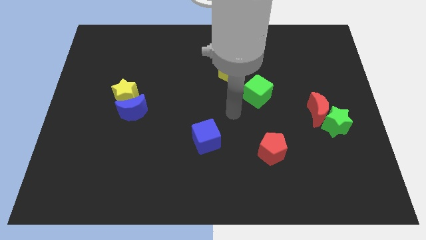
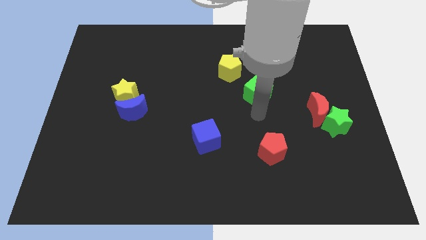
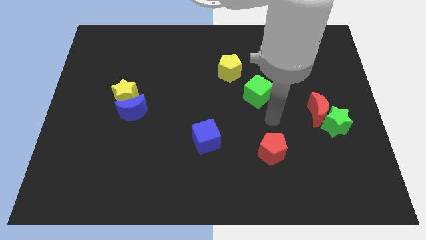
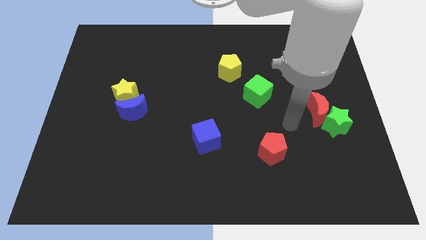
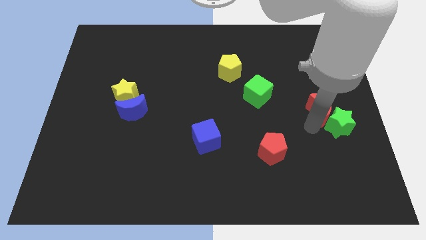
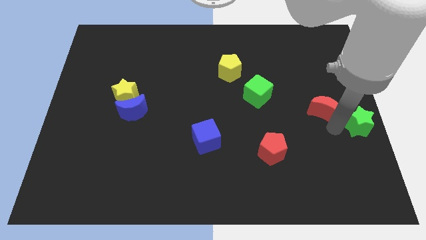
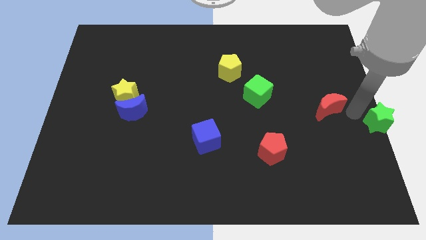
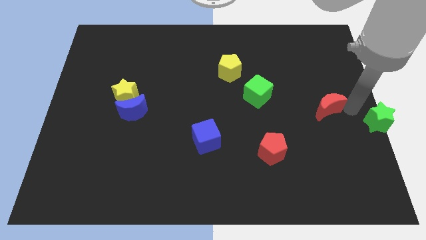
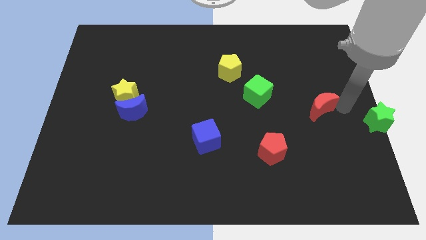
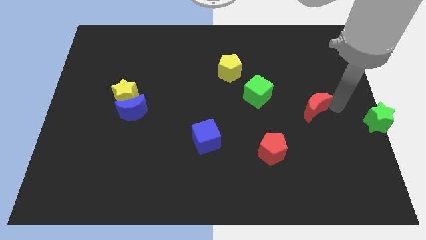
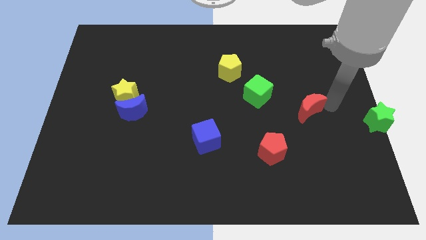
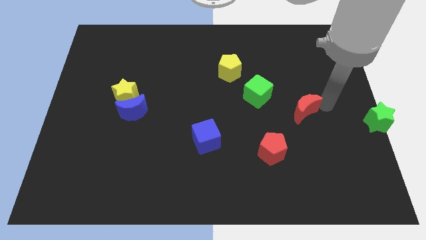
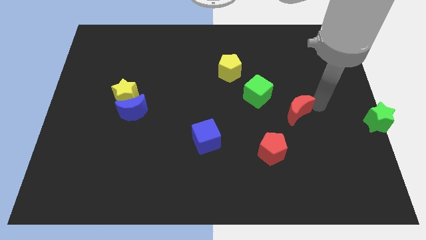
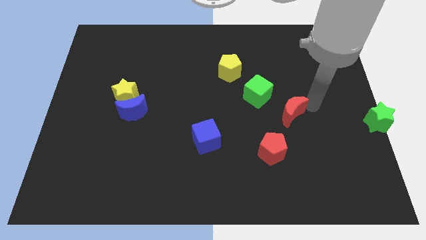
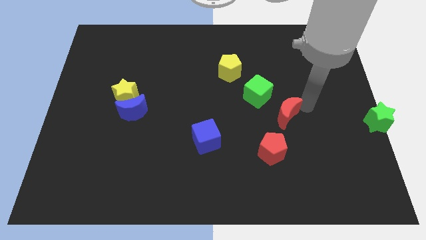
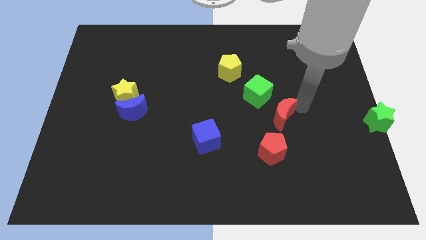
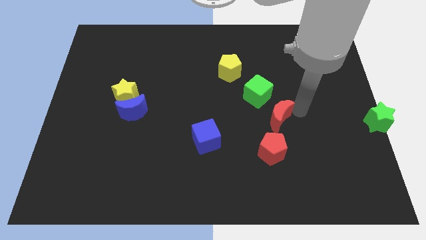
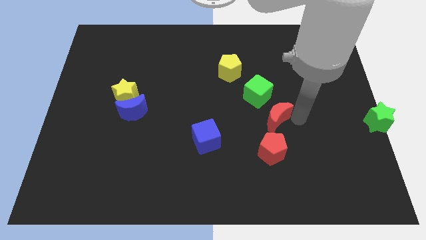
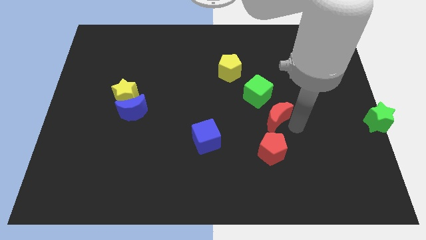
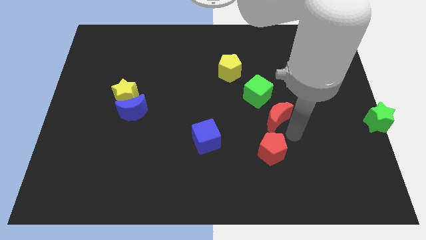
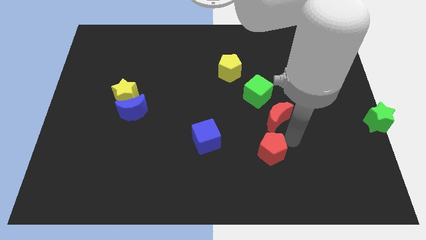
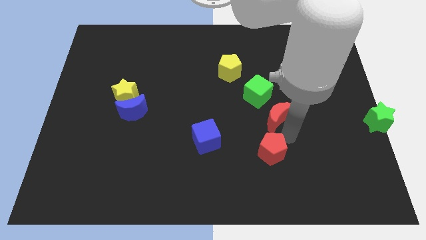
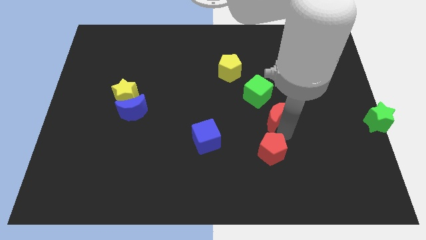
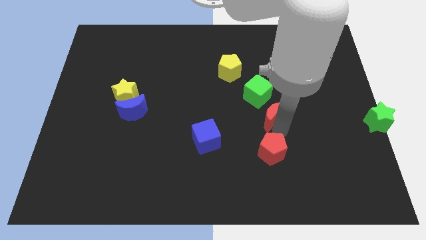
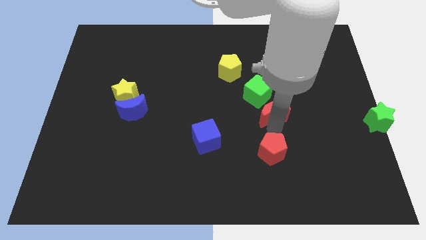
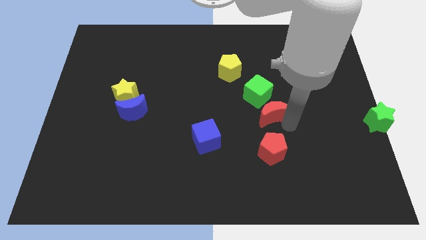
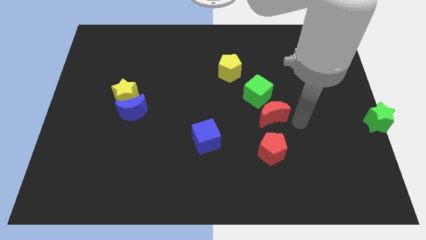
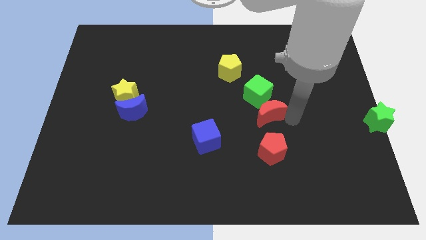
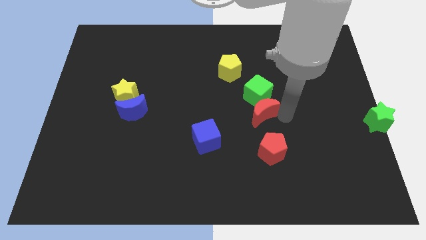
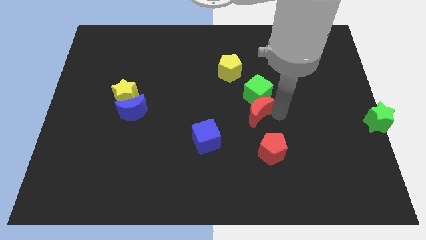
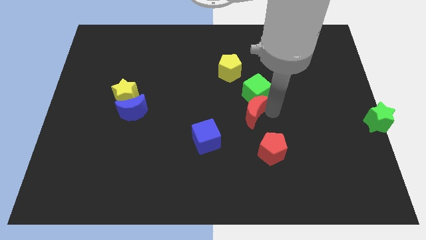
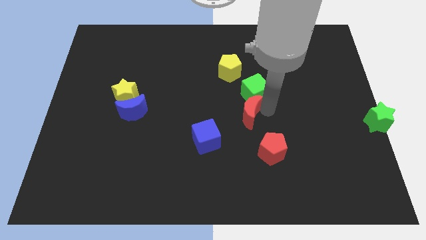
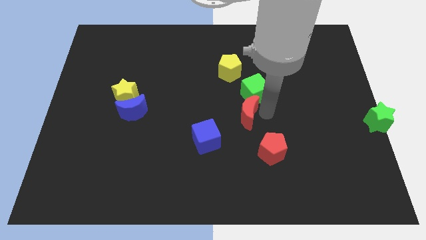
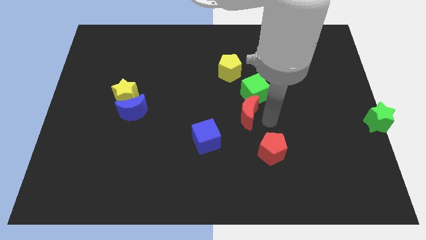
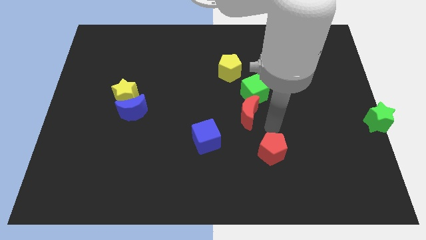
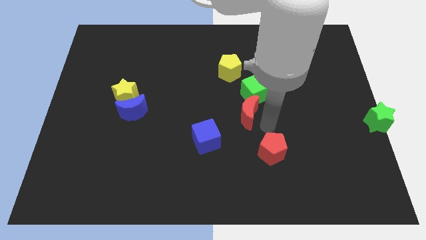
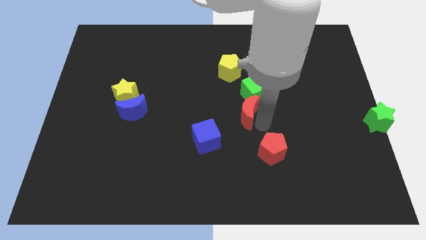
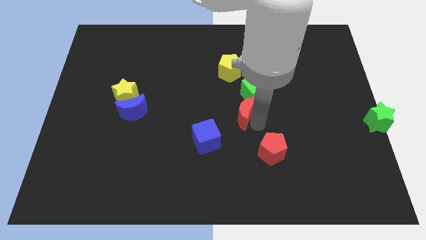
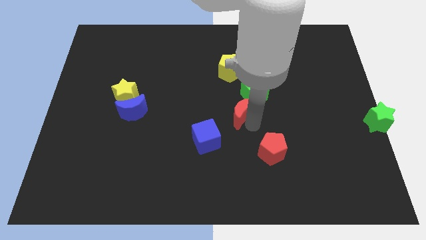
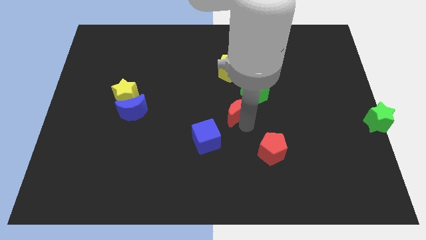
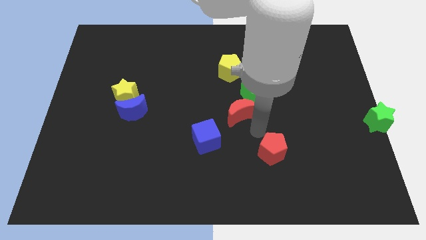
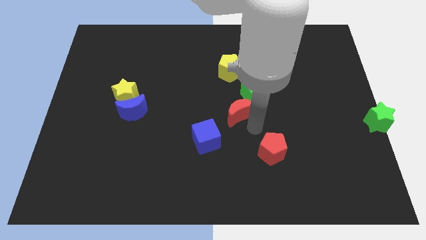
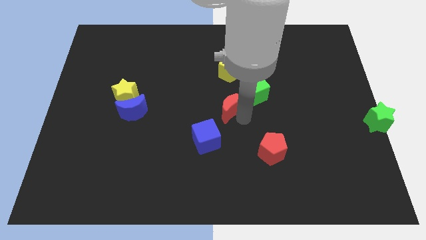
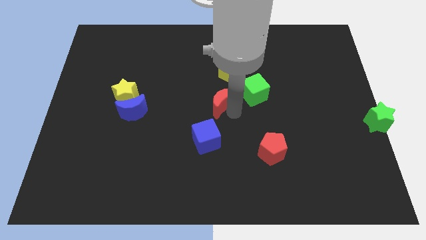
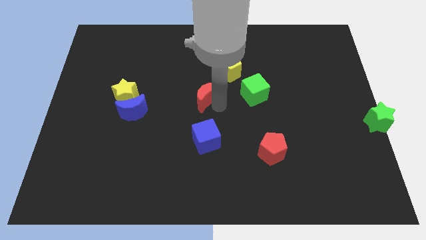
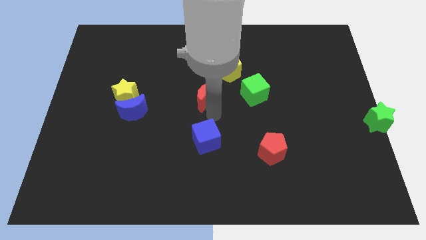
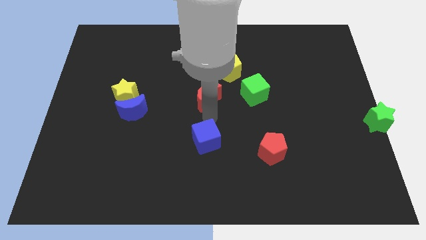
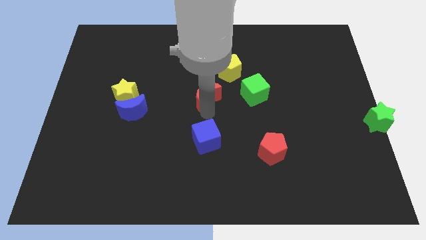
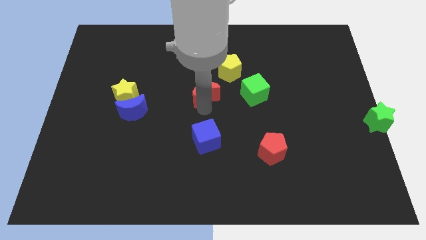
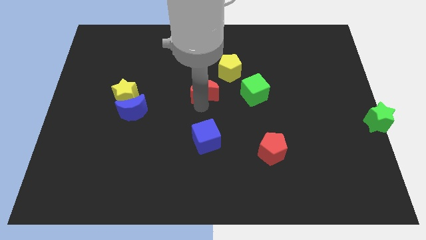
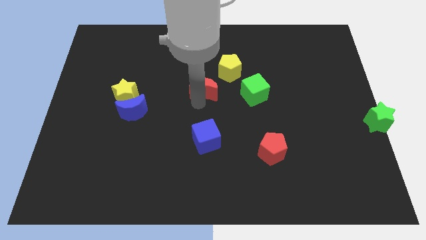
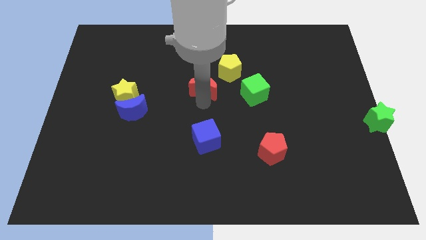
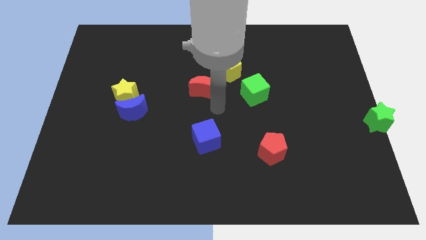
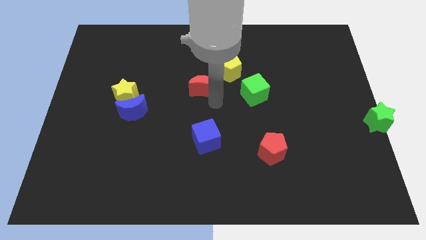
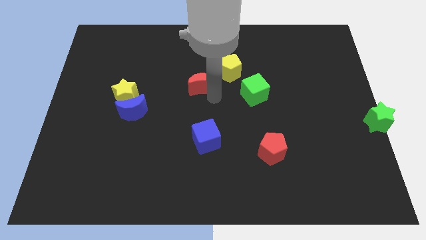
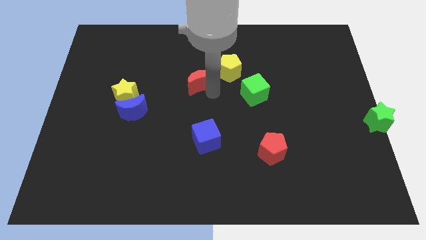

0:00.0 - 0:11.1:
move the red moon to the left side of the yellow pentagon
